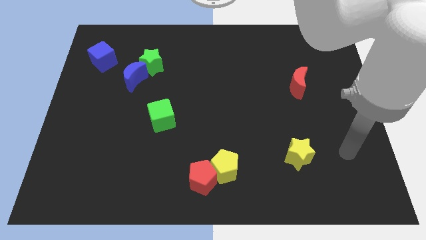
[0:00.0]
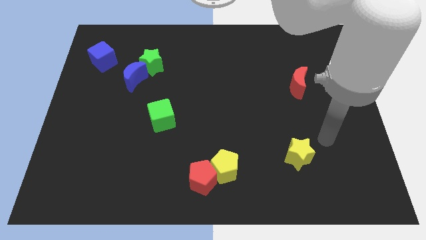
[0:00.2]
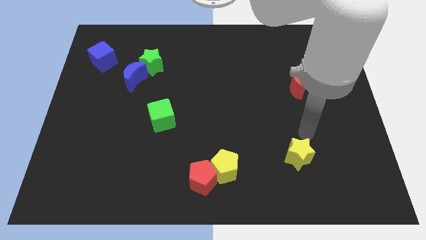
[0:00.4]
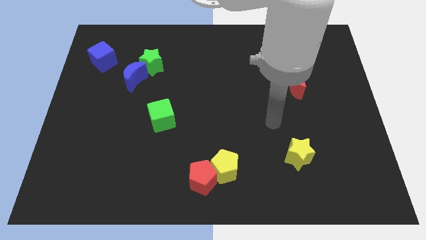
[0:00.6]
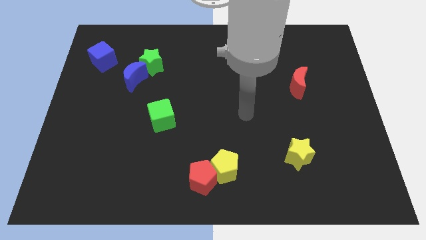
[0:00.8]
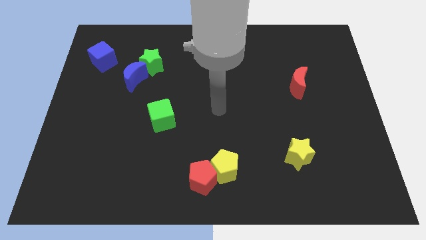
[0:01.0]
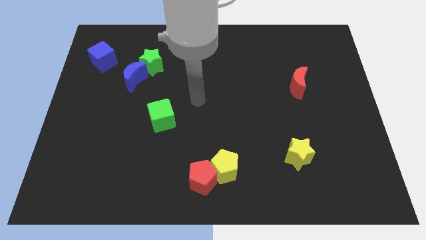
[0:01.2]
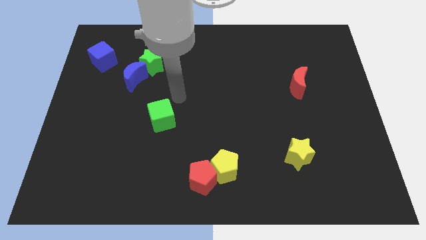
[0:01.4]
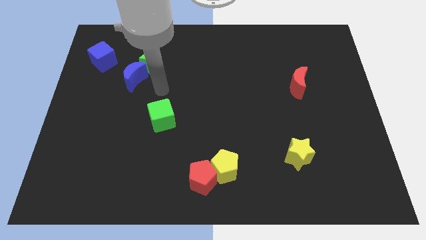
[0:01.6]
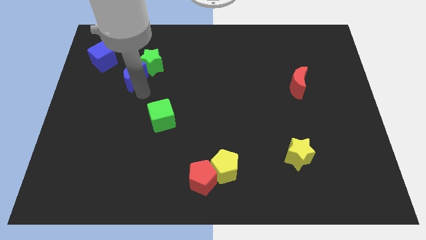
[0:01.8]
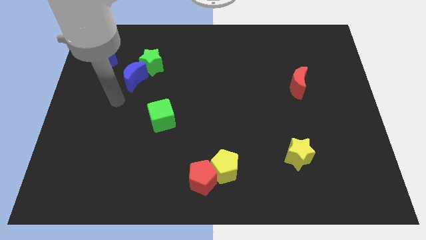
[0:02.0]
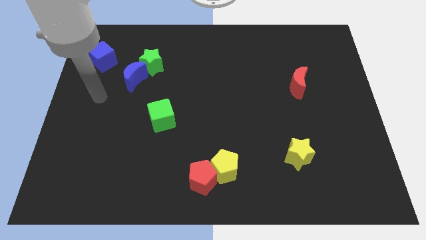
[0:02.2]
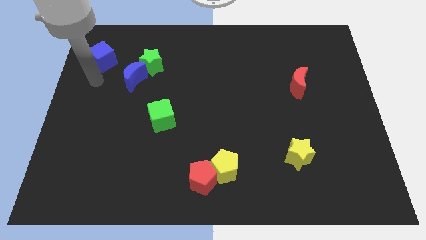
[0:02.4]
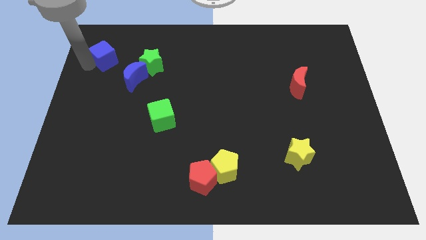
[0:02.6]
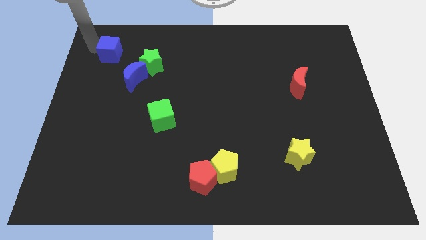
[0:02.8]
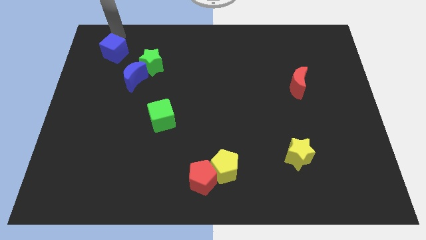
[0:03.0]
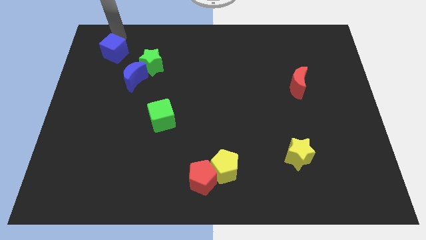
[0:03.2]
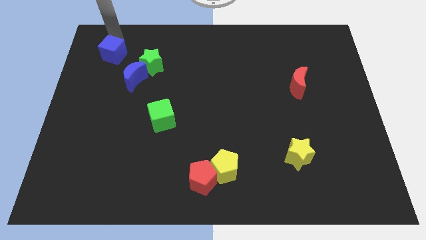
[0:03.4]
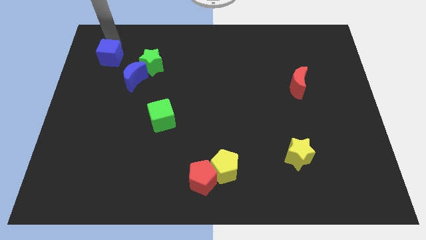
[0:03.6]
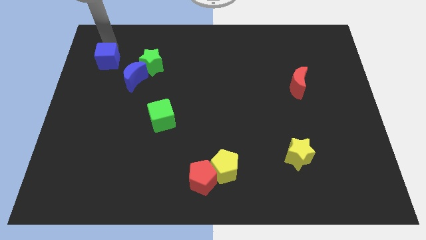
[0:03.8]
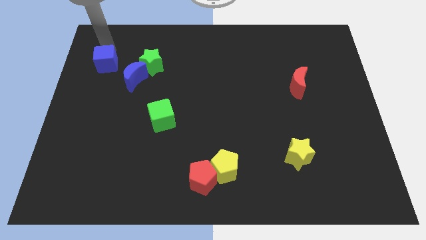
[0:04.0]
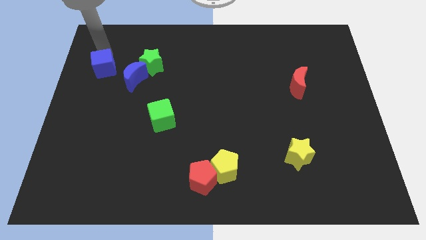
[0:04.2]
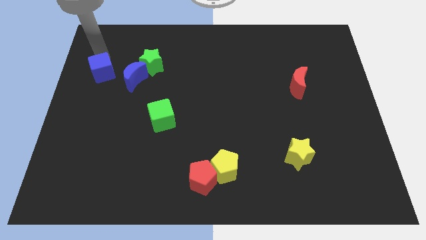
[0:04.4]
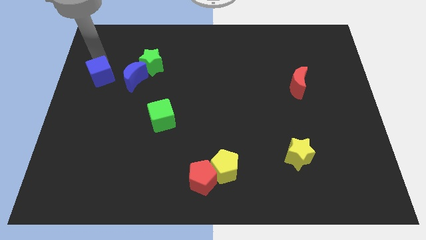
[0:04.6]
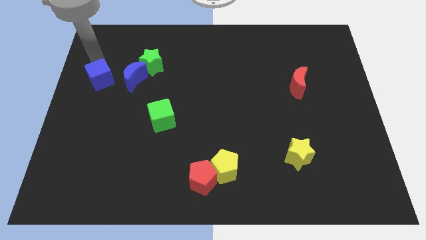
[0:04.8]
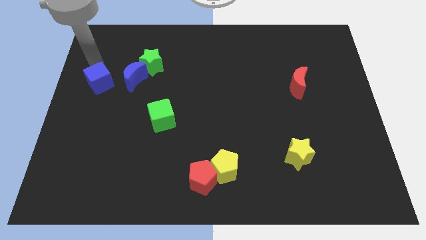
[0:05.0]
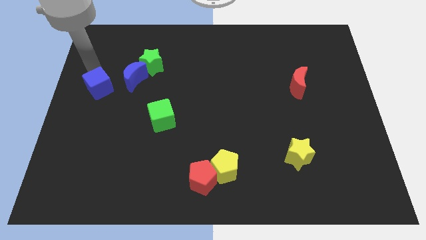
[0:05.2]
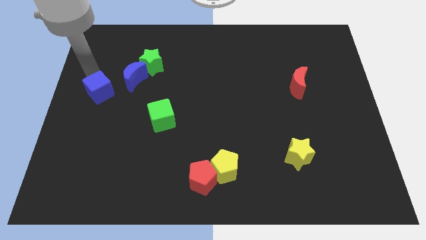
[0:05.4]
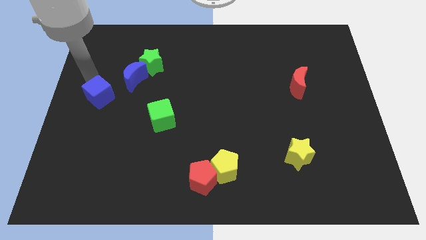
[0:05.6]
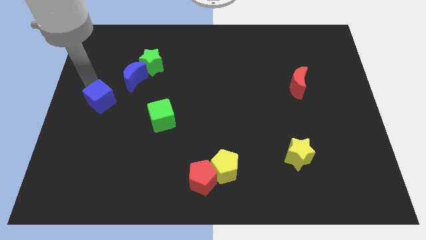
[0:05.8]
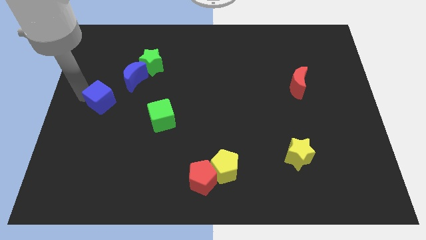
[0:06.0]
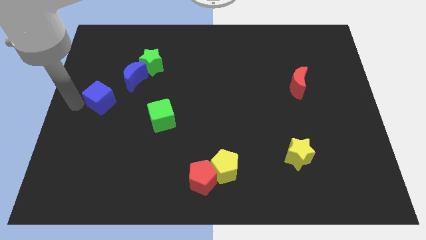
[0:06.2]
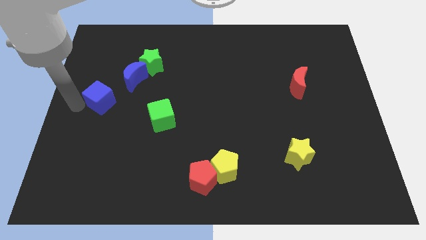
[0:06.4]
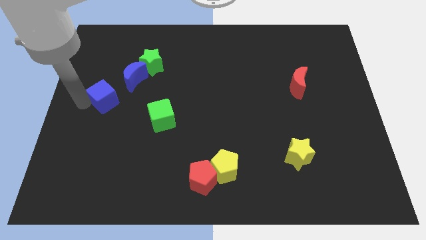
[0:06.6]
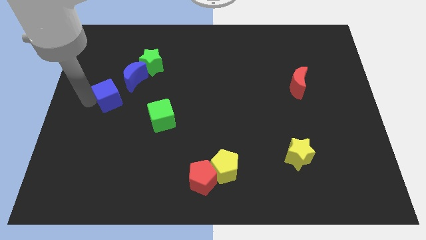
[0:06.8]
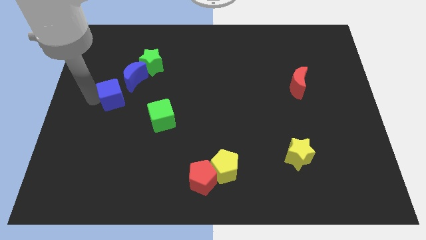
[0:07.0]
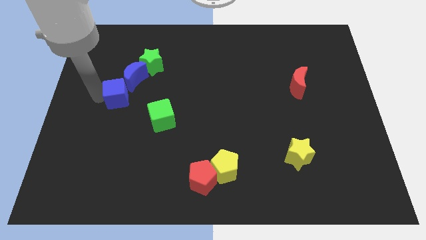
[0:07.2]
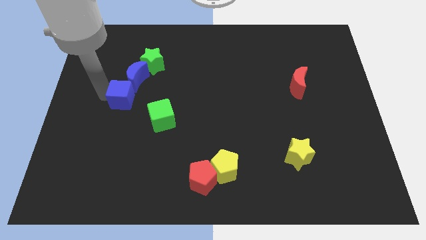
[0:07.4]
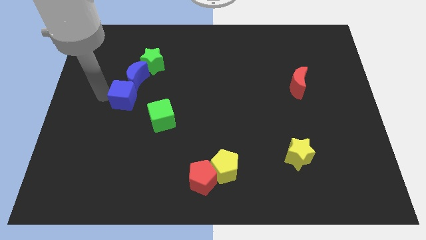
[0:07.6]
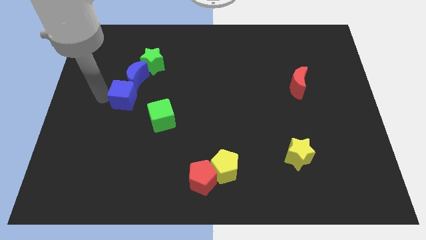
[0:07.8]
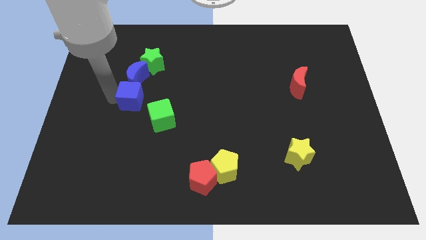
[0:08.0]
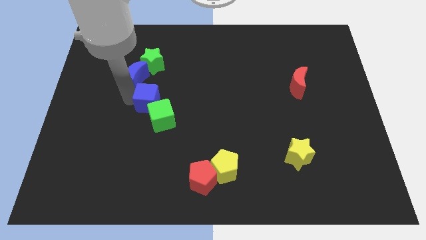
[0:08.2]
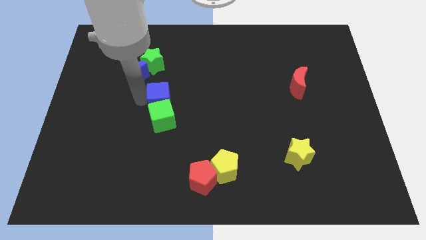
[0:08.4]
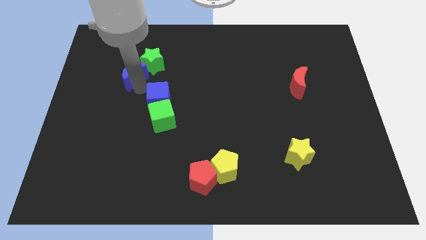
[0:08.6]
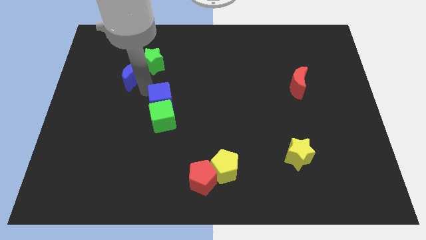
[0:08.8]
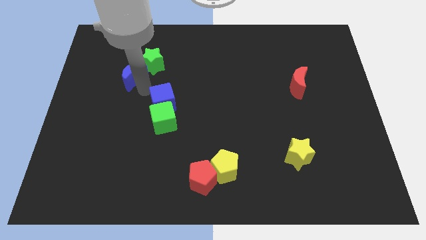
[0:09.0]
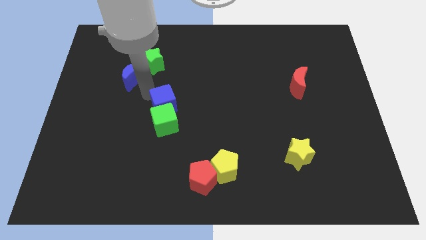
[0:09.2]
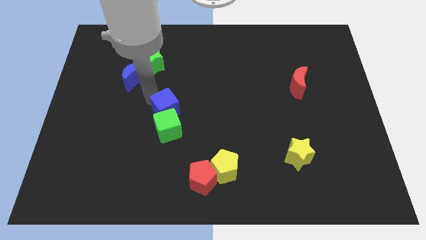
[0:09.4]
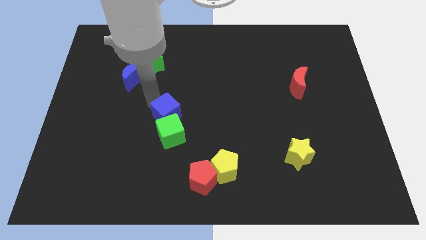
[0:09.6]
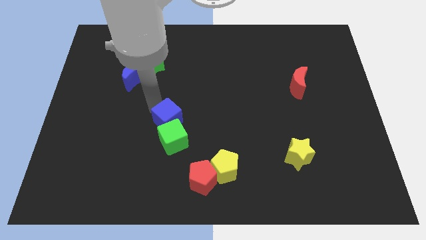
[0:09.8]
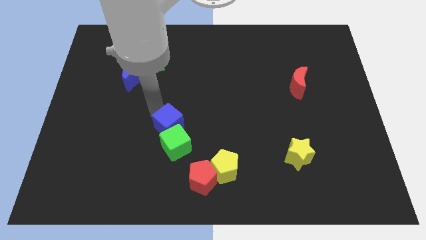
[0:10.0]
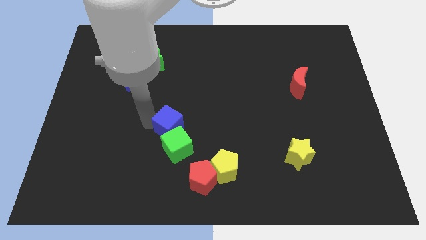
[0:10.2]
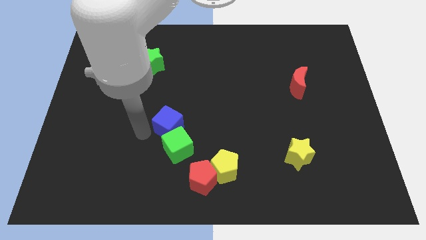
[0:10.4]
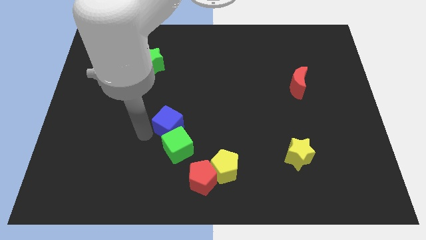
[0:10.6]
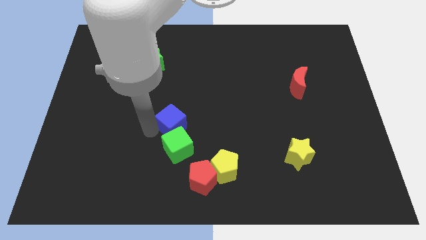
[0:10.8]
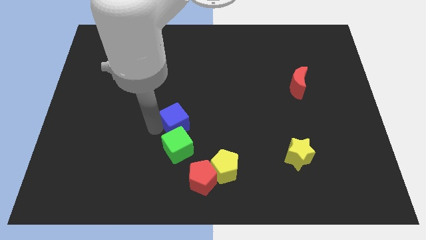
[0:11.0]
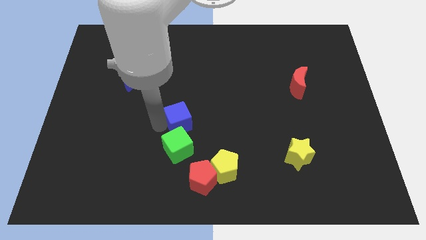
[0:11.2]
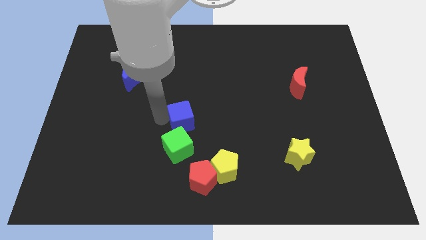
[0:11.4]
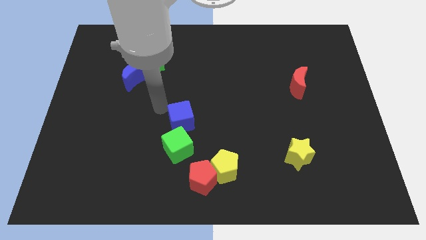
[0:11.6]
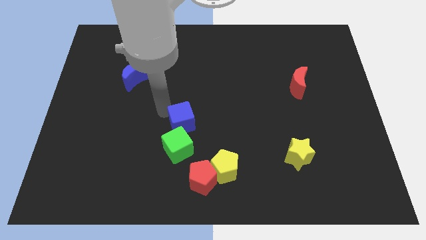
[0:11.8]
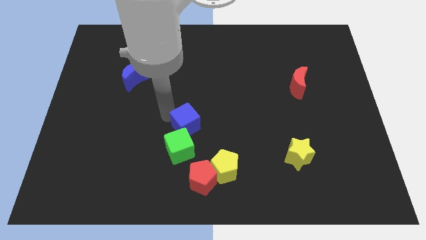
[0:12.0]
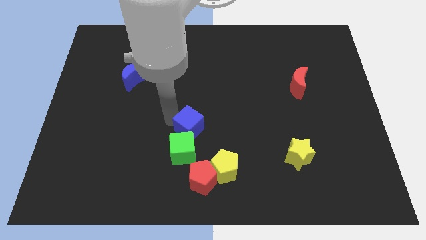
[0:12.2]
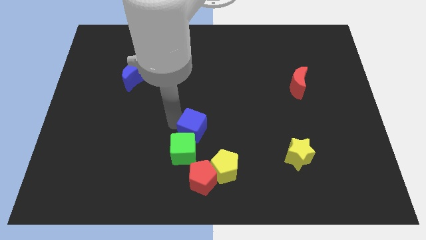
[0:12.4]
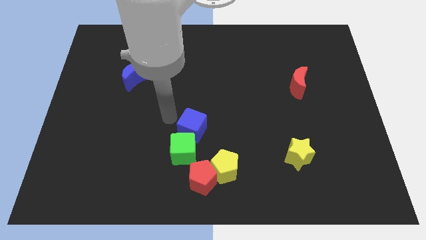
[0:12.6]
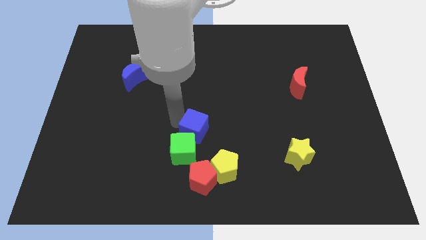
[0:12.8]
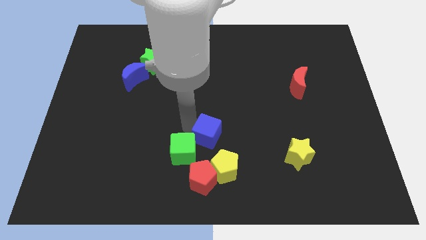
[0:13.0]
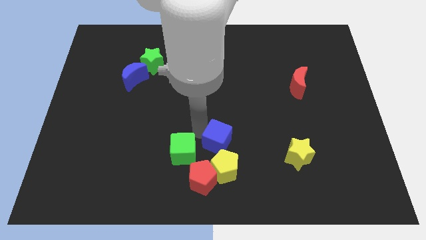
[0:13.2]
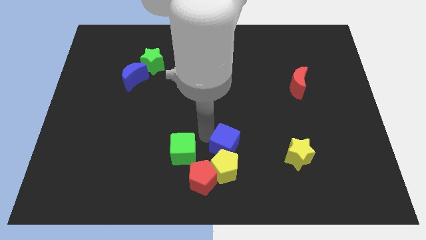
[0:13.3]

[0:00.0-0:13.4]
move the blue cube diagonally up and to the right of the yellow pentagon
